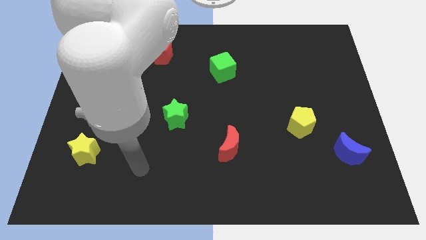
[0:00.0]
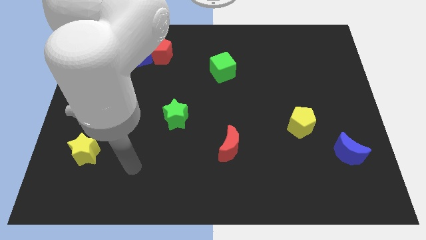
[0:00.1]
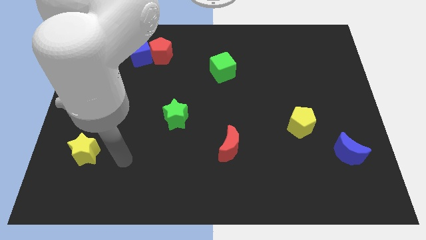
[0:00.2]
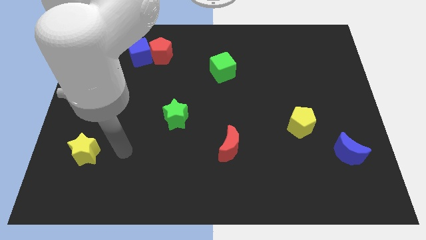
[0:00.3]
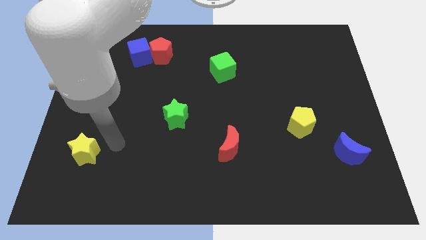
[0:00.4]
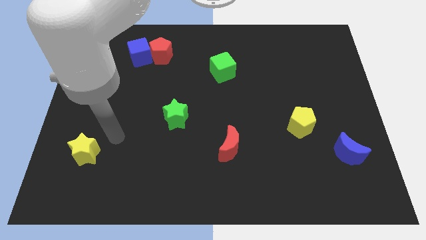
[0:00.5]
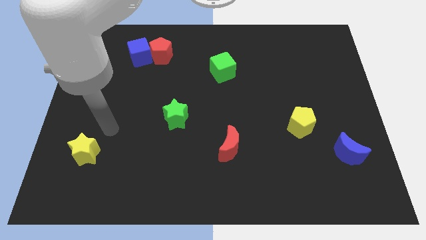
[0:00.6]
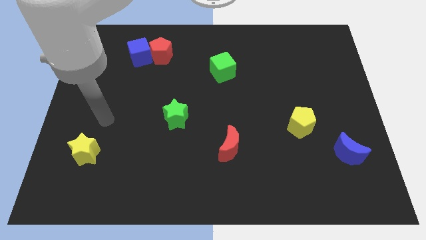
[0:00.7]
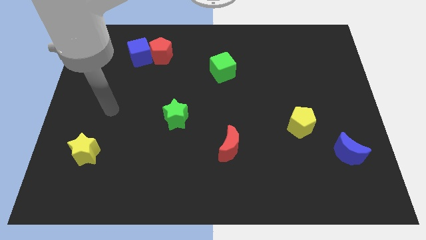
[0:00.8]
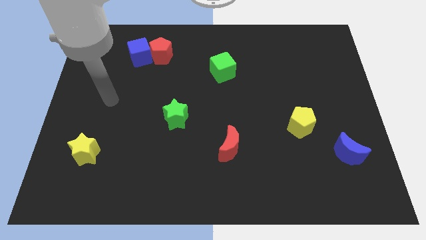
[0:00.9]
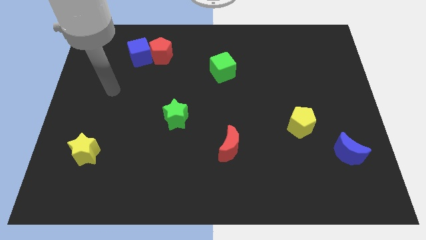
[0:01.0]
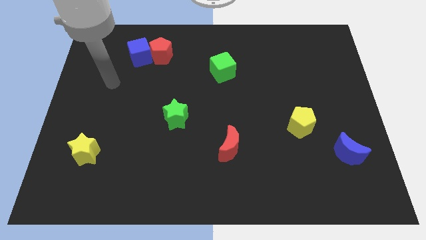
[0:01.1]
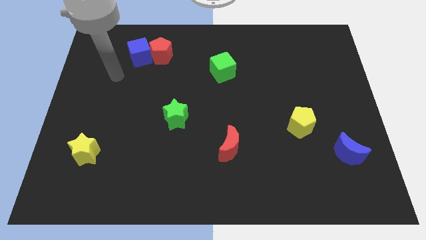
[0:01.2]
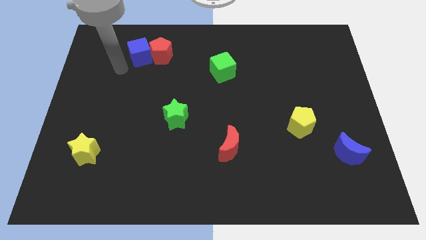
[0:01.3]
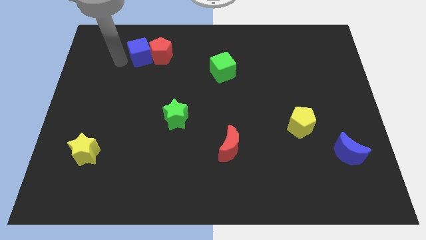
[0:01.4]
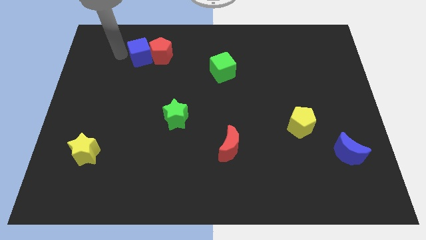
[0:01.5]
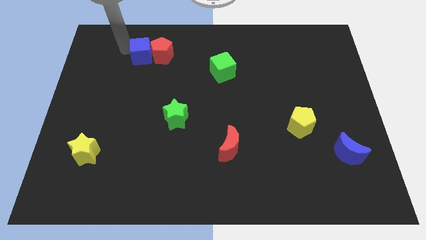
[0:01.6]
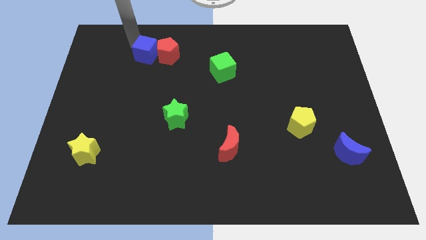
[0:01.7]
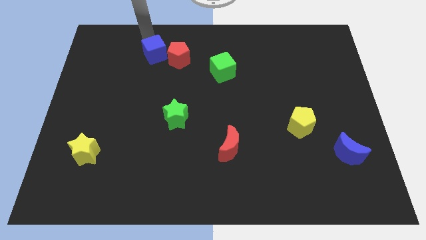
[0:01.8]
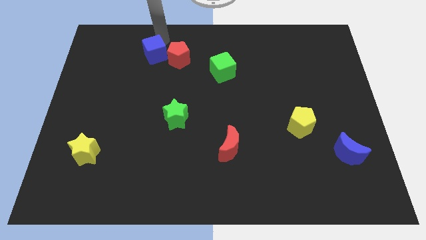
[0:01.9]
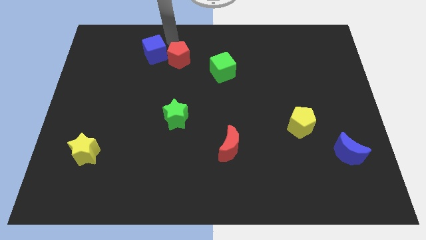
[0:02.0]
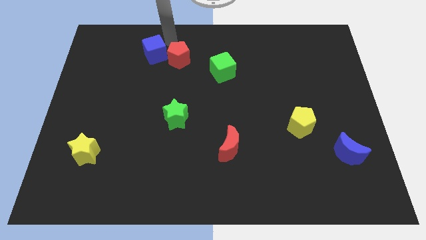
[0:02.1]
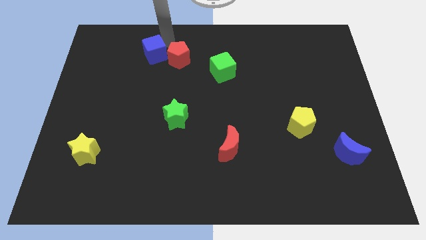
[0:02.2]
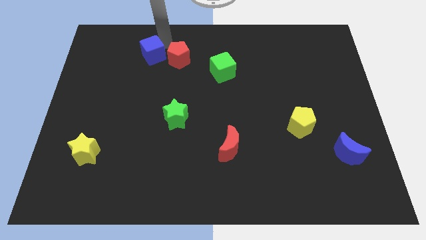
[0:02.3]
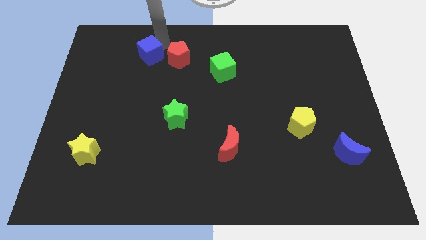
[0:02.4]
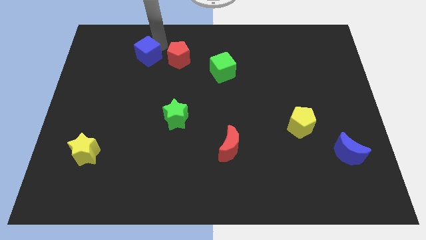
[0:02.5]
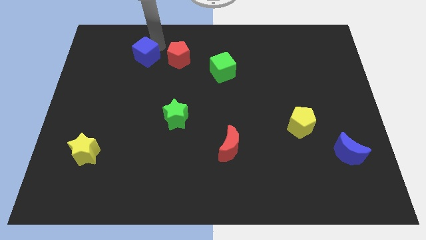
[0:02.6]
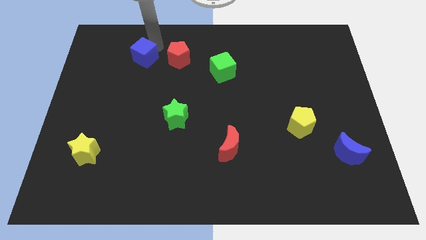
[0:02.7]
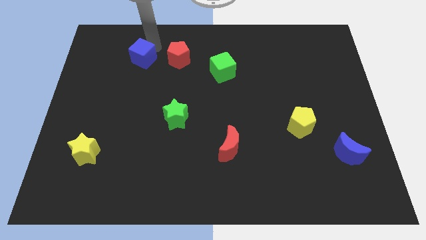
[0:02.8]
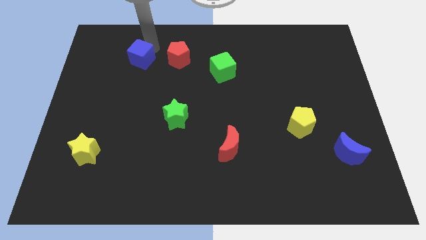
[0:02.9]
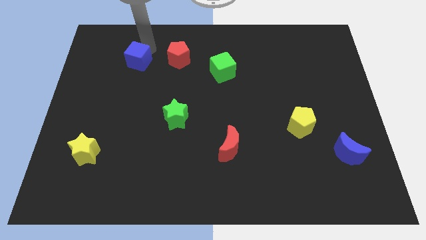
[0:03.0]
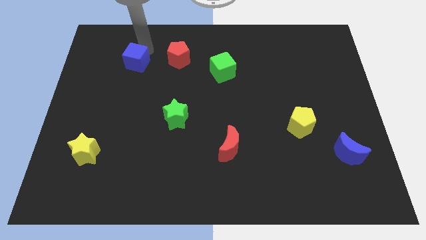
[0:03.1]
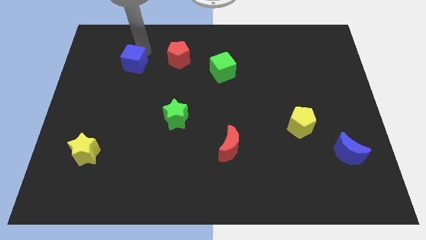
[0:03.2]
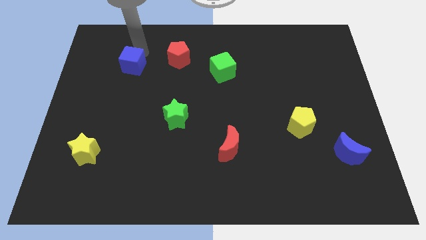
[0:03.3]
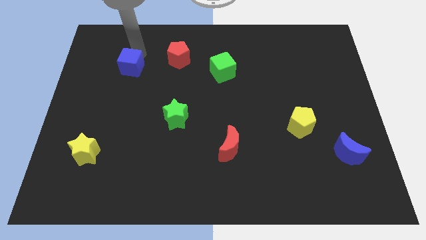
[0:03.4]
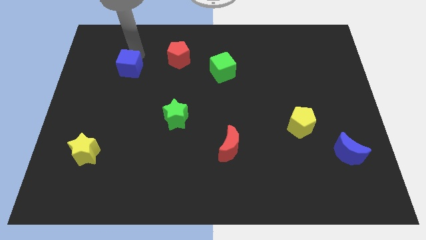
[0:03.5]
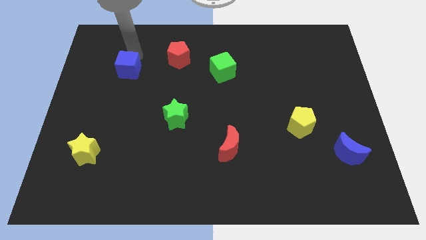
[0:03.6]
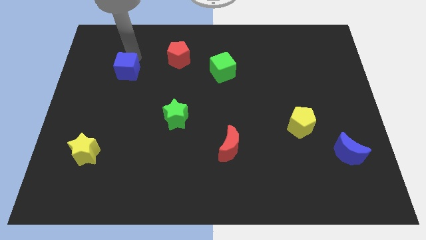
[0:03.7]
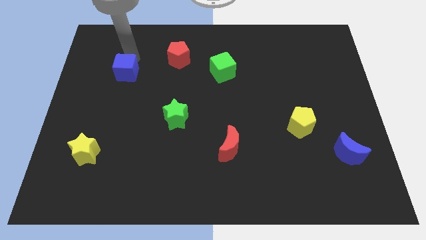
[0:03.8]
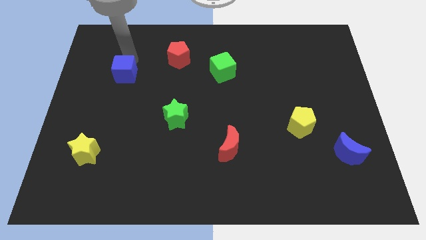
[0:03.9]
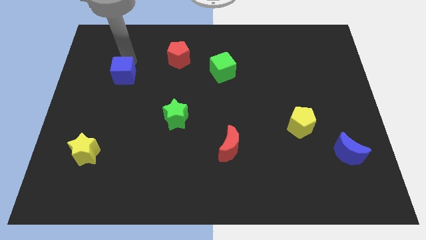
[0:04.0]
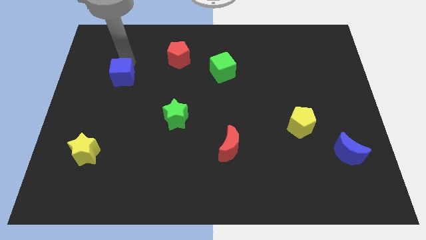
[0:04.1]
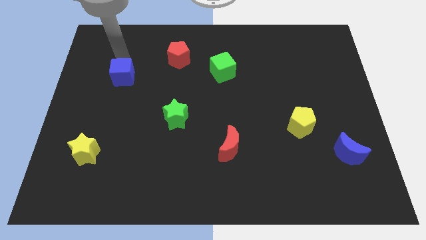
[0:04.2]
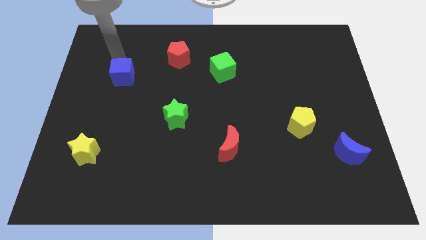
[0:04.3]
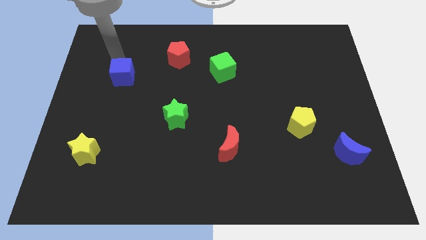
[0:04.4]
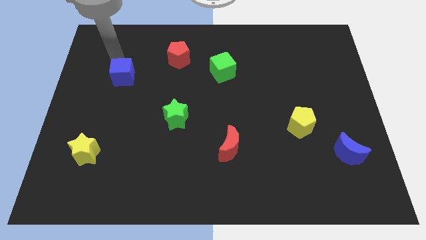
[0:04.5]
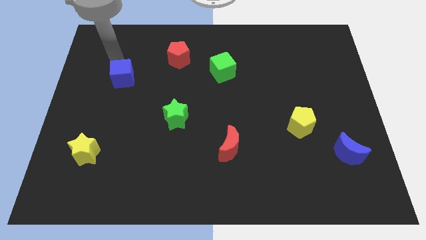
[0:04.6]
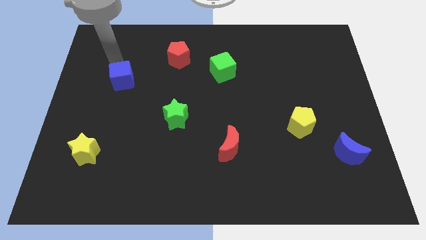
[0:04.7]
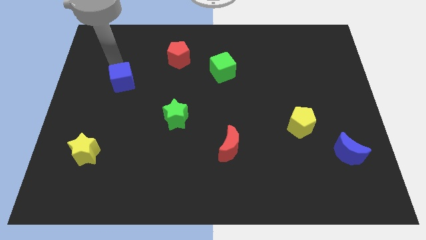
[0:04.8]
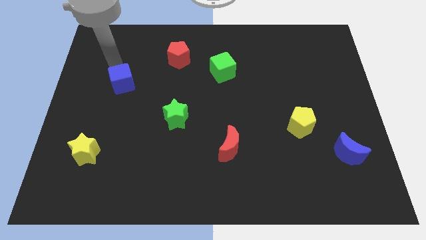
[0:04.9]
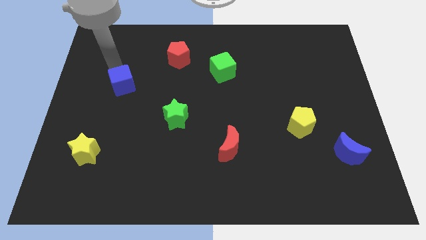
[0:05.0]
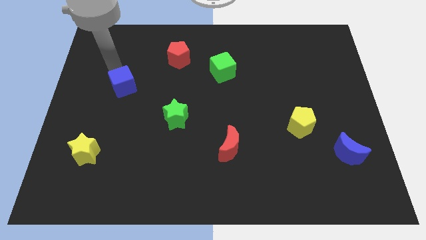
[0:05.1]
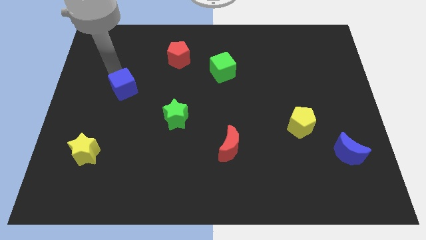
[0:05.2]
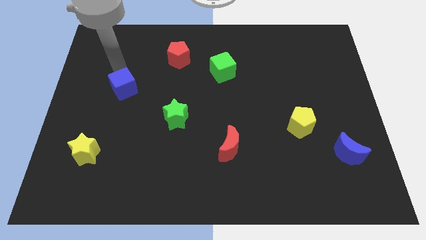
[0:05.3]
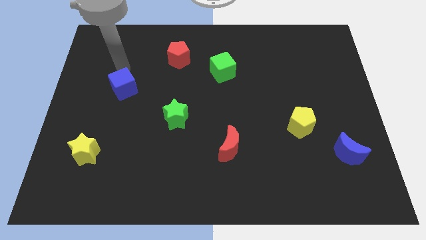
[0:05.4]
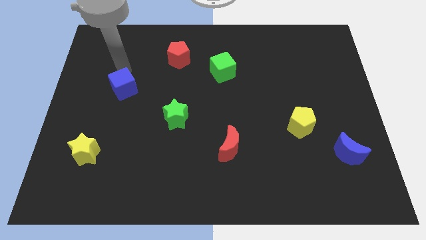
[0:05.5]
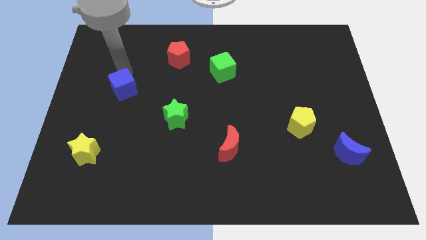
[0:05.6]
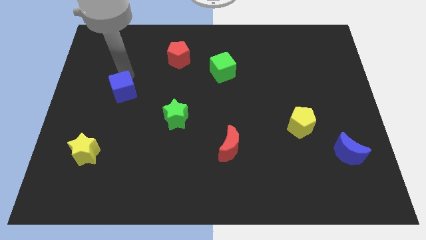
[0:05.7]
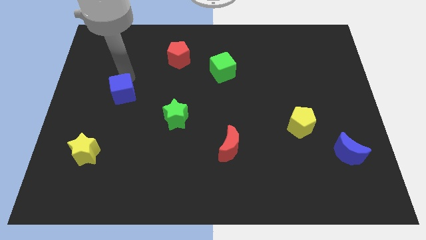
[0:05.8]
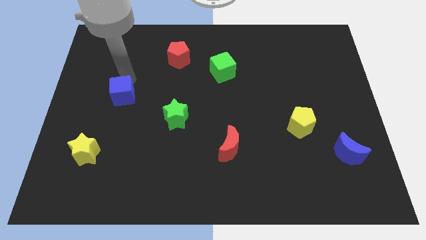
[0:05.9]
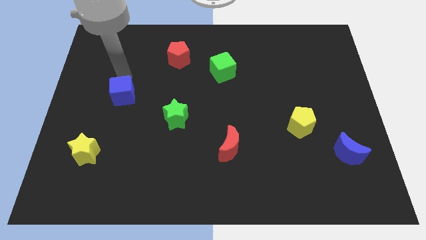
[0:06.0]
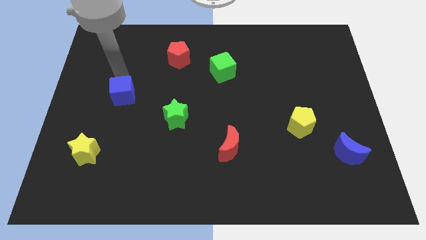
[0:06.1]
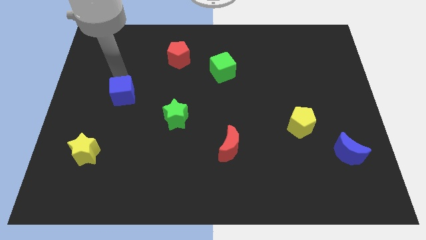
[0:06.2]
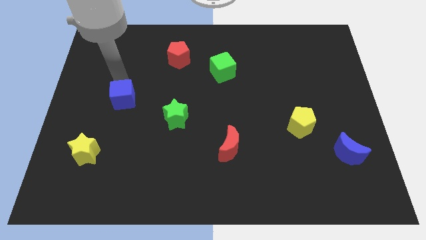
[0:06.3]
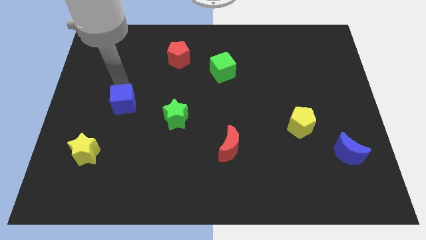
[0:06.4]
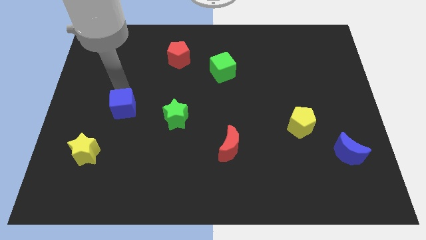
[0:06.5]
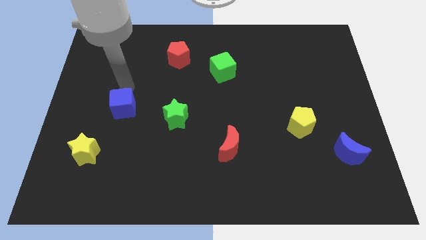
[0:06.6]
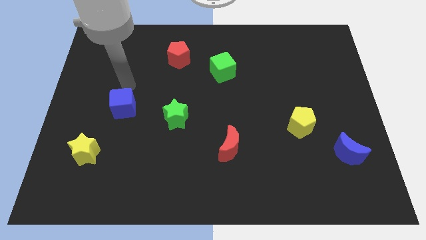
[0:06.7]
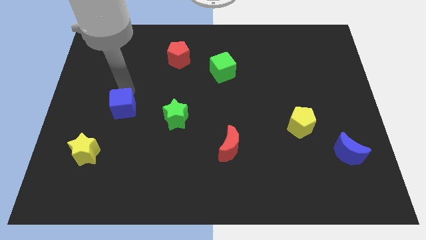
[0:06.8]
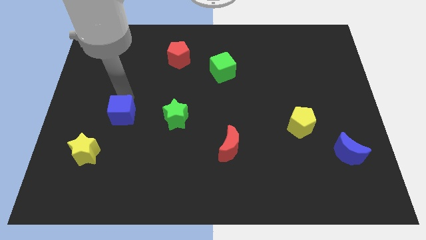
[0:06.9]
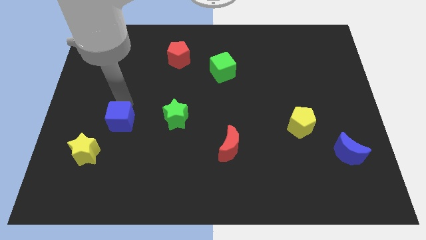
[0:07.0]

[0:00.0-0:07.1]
push the blue cube downwards

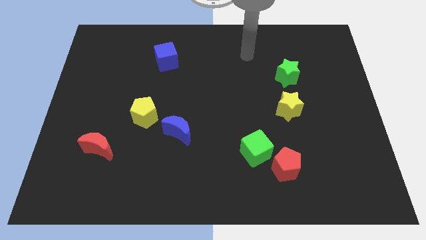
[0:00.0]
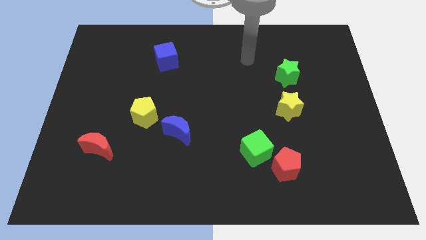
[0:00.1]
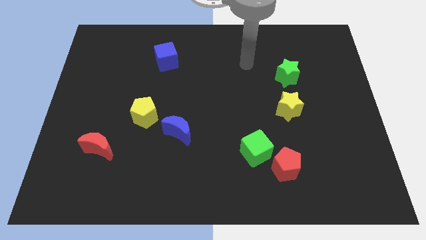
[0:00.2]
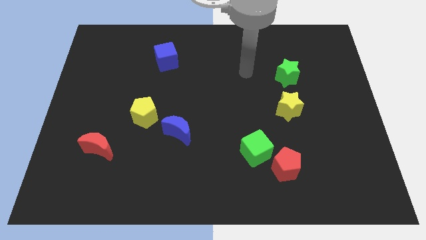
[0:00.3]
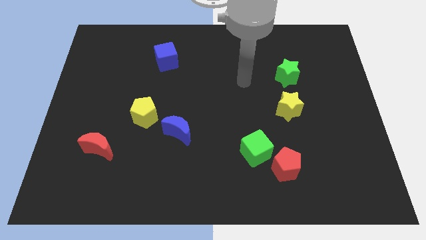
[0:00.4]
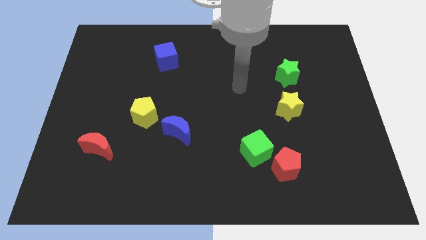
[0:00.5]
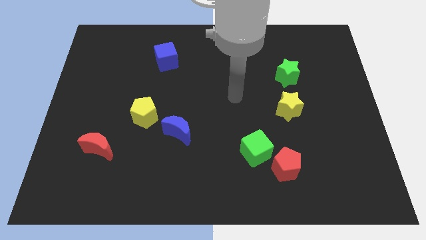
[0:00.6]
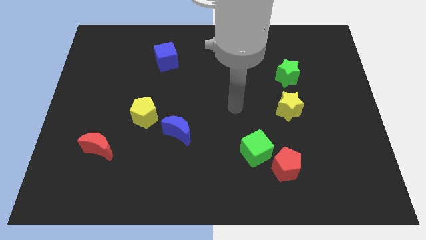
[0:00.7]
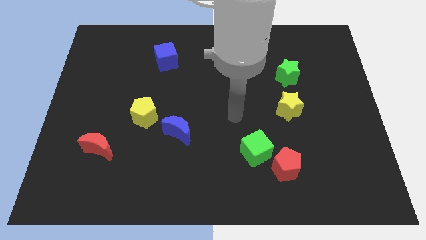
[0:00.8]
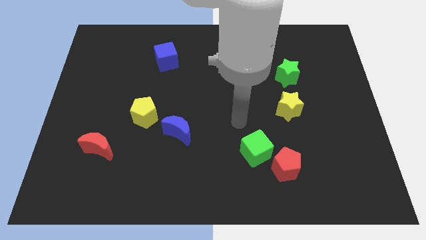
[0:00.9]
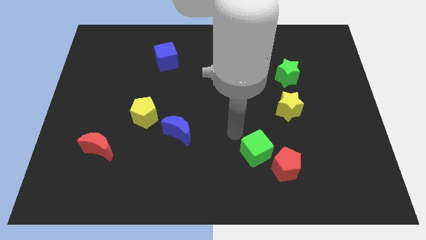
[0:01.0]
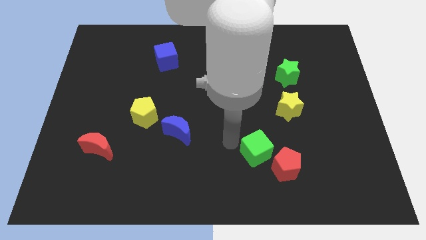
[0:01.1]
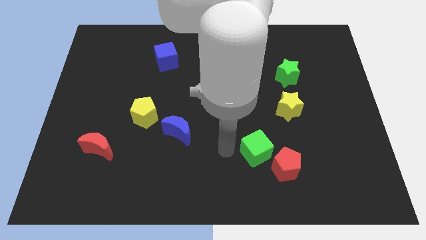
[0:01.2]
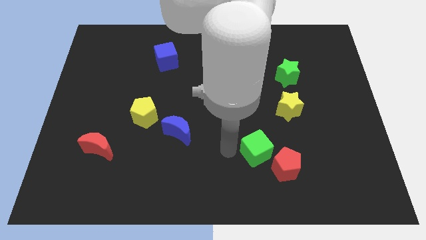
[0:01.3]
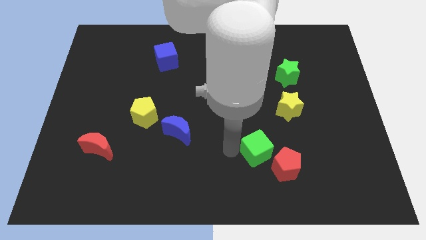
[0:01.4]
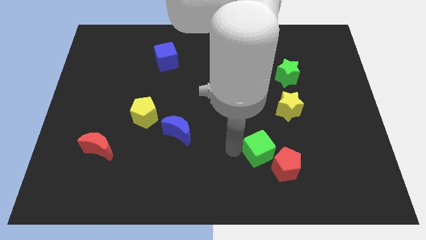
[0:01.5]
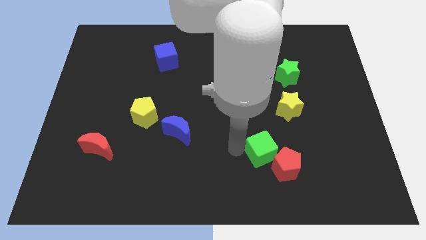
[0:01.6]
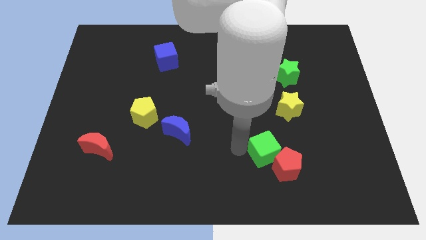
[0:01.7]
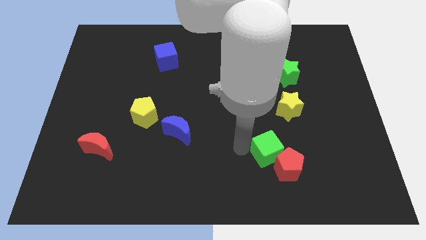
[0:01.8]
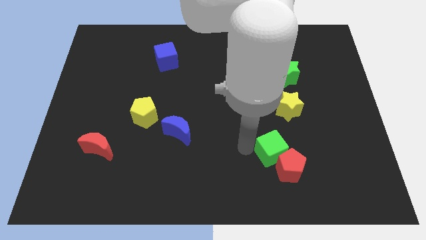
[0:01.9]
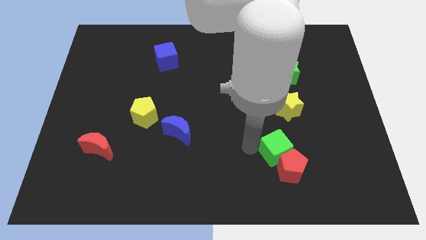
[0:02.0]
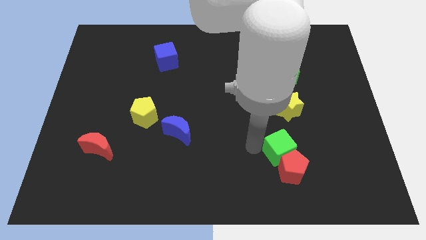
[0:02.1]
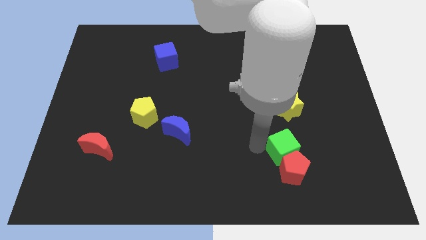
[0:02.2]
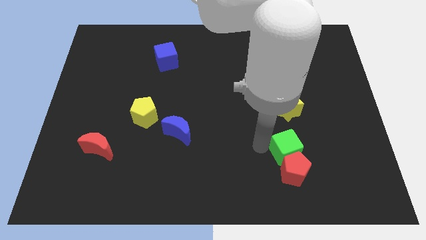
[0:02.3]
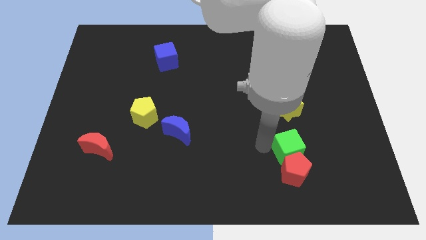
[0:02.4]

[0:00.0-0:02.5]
push the green cube a bit right
